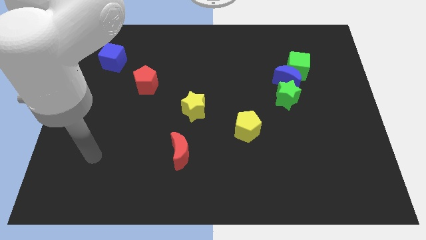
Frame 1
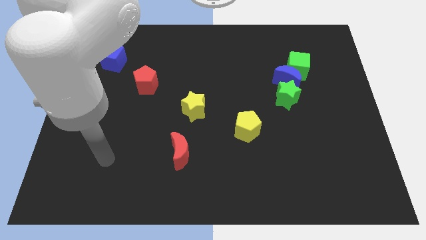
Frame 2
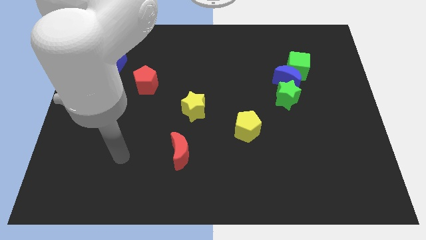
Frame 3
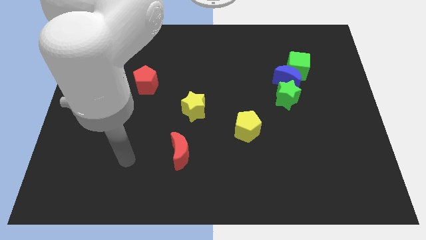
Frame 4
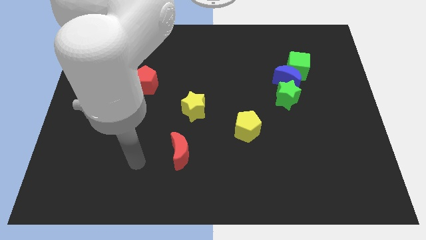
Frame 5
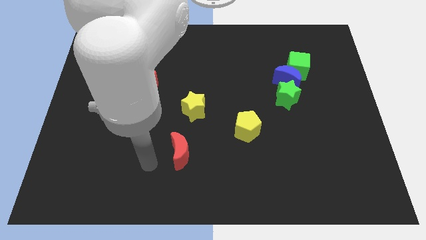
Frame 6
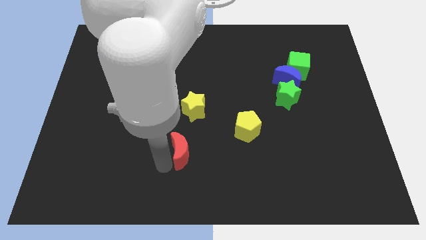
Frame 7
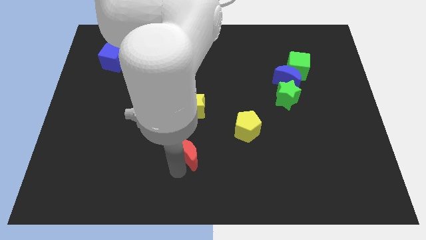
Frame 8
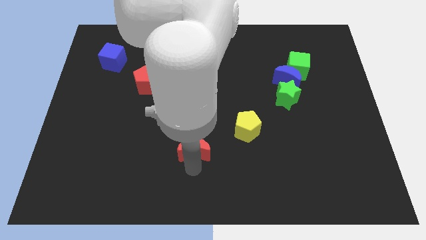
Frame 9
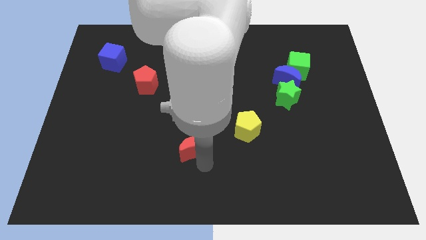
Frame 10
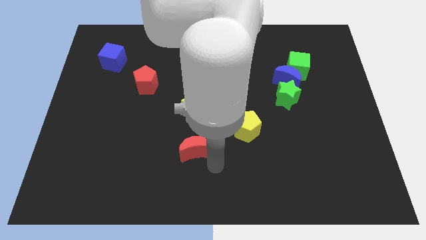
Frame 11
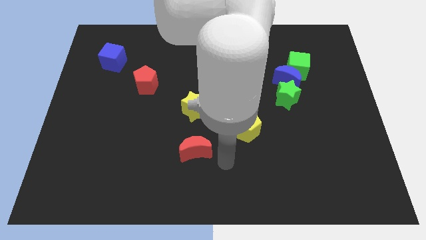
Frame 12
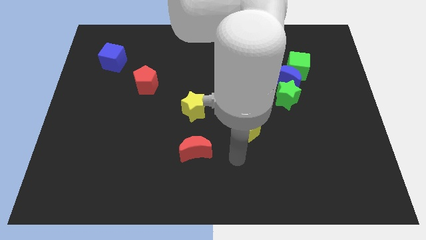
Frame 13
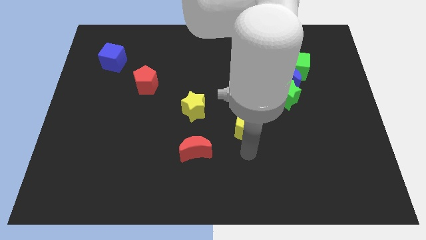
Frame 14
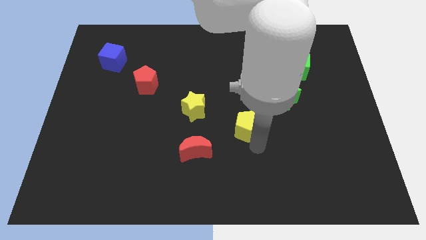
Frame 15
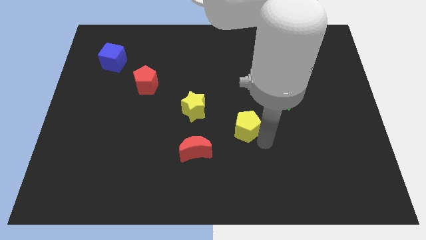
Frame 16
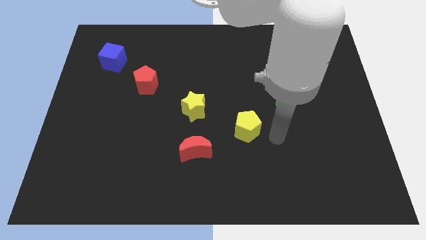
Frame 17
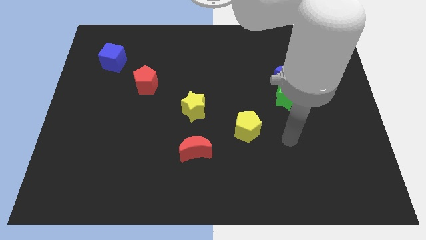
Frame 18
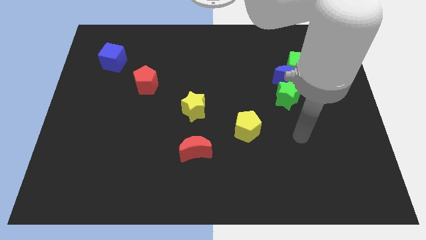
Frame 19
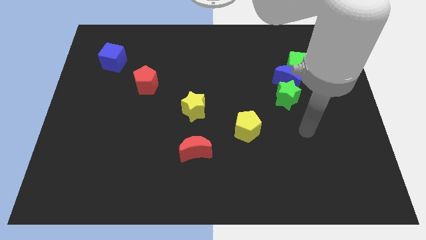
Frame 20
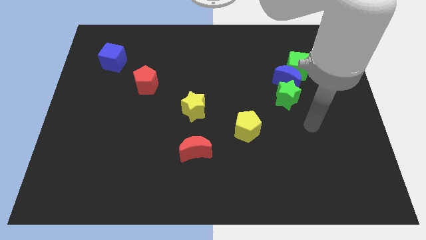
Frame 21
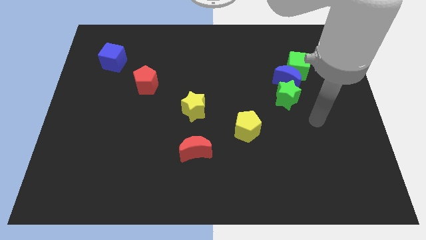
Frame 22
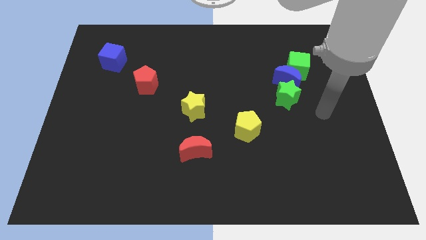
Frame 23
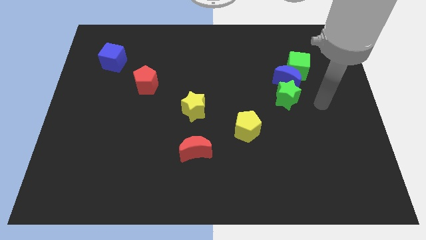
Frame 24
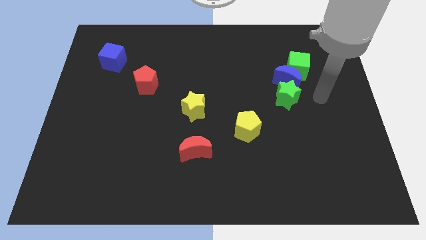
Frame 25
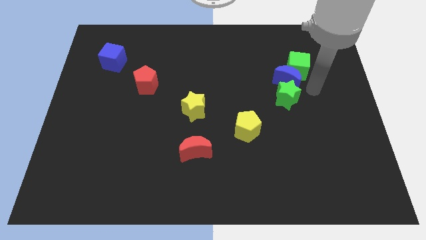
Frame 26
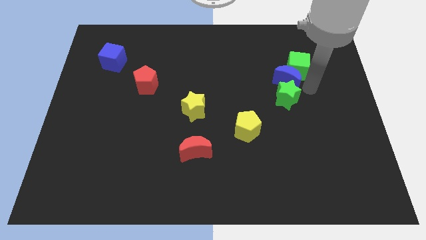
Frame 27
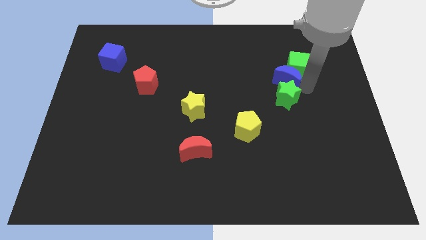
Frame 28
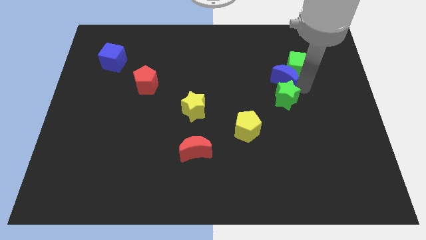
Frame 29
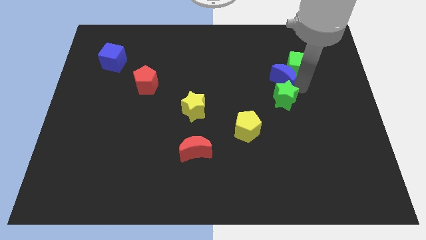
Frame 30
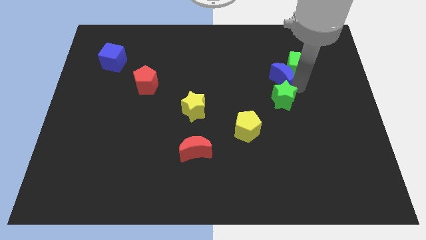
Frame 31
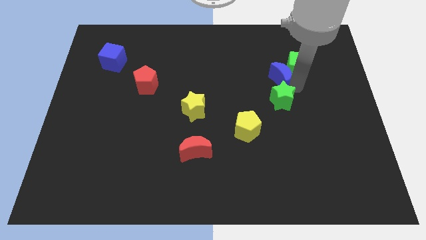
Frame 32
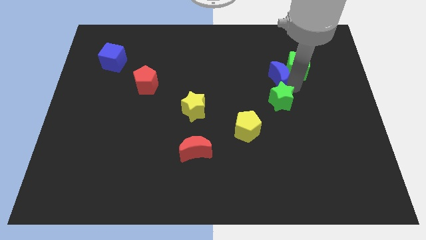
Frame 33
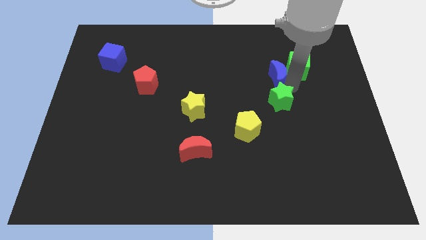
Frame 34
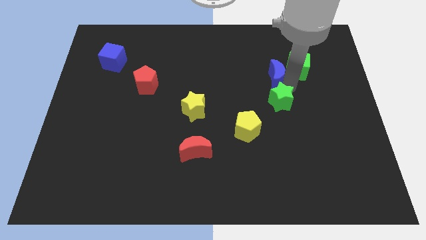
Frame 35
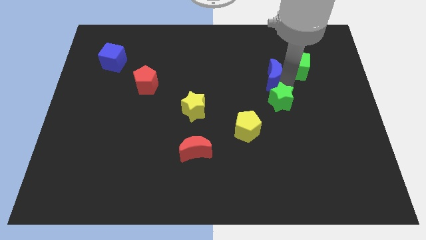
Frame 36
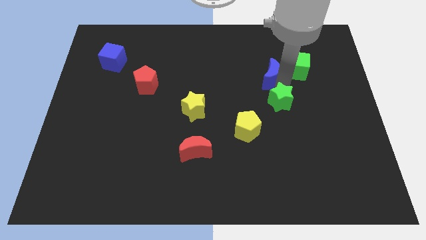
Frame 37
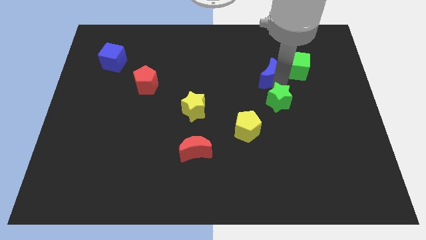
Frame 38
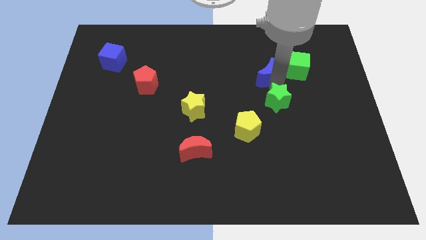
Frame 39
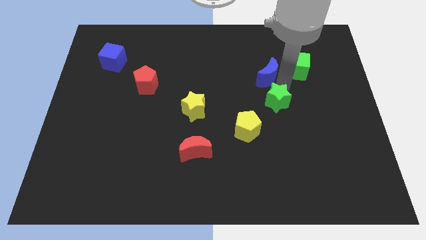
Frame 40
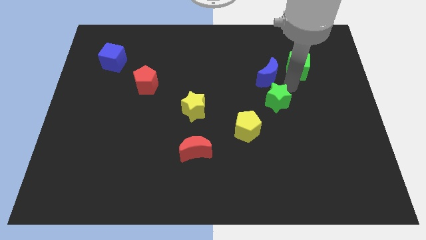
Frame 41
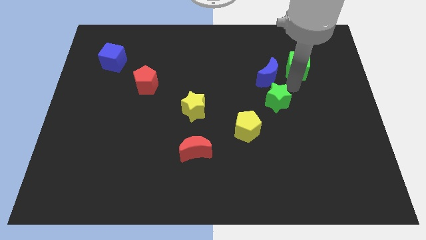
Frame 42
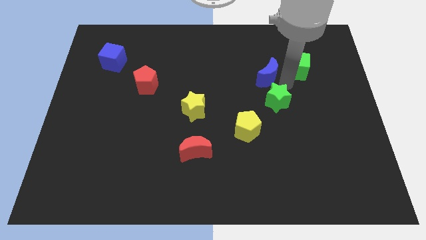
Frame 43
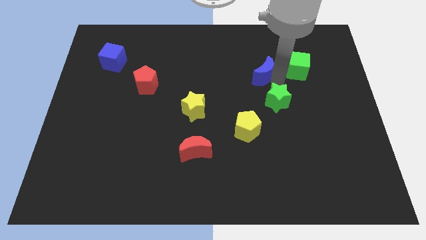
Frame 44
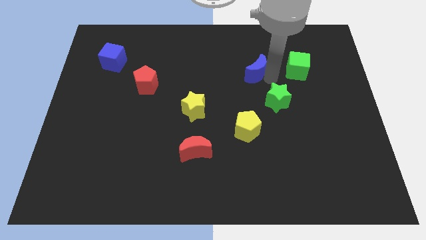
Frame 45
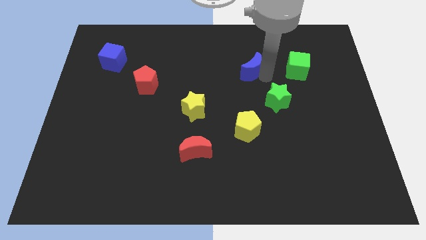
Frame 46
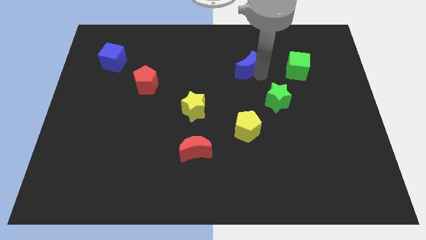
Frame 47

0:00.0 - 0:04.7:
pull the blue moon apart from the green cube and green star

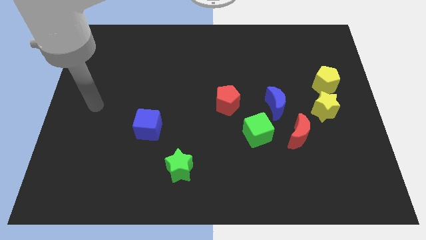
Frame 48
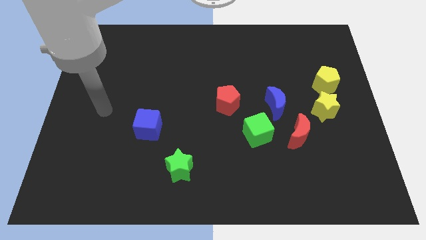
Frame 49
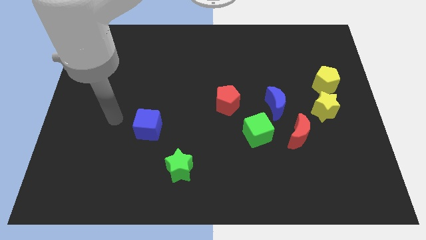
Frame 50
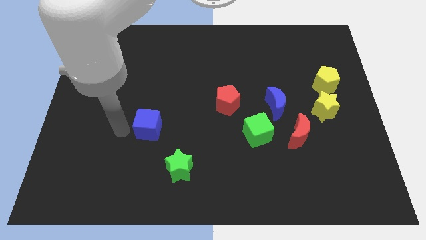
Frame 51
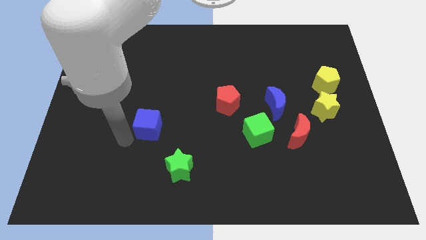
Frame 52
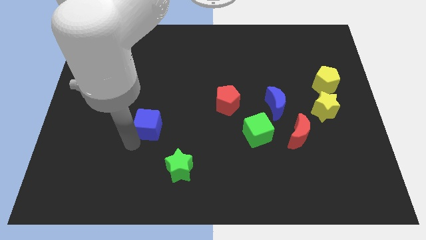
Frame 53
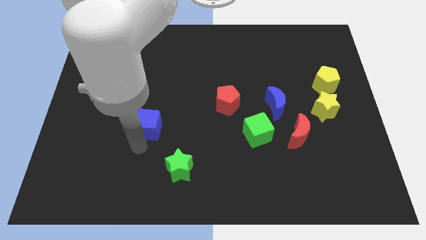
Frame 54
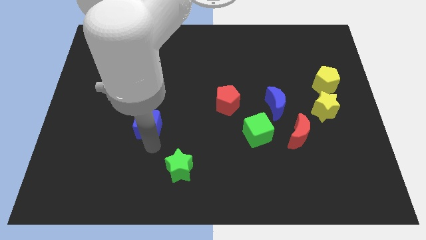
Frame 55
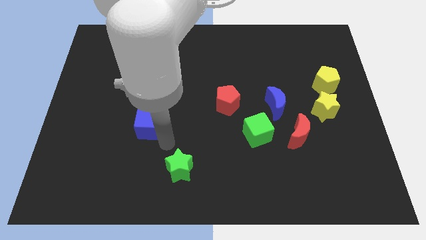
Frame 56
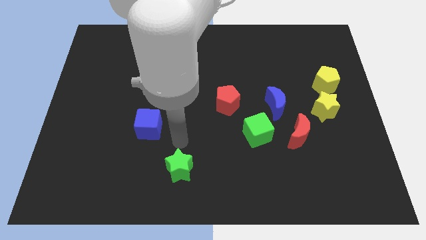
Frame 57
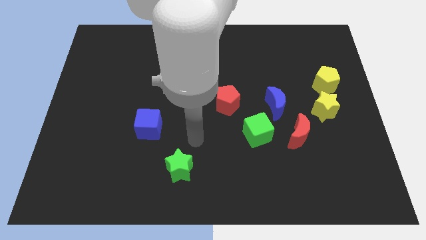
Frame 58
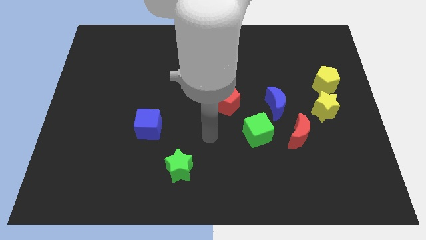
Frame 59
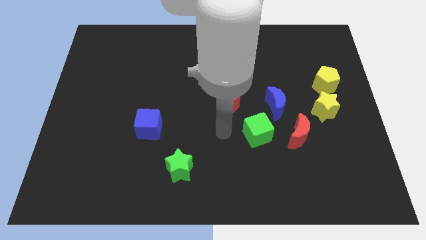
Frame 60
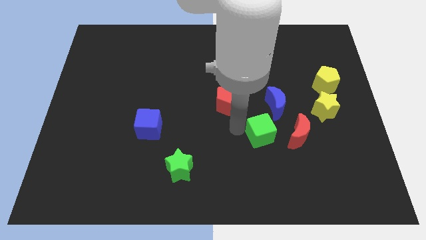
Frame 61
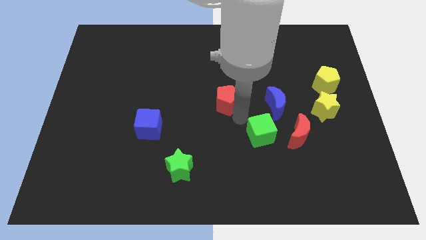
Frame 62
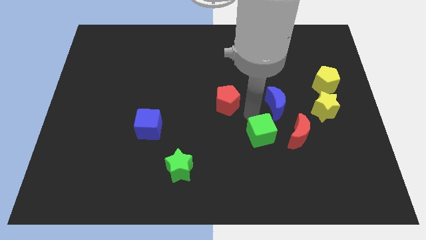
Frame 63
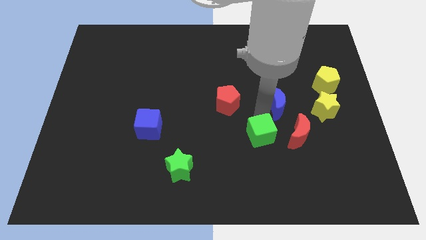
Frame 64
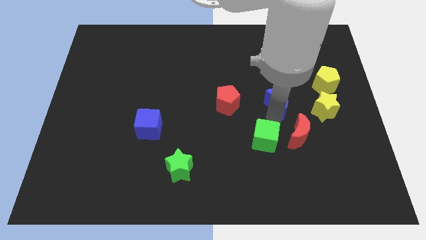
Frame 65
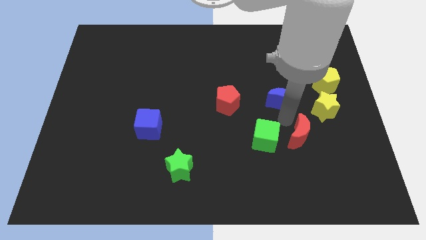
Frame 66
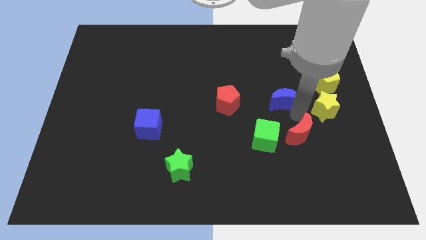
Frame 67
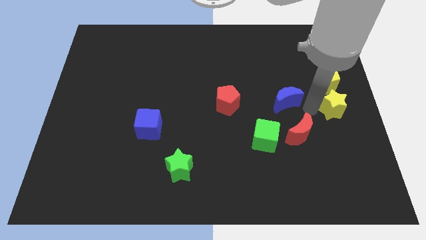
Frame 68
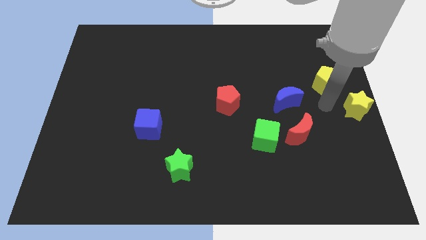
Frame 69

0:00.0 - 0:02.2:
move the yellow pentagon away from the yellow star

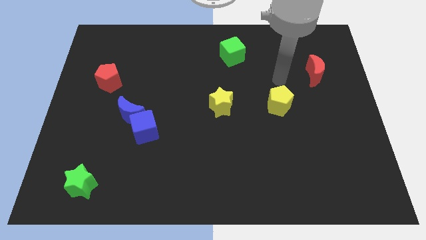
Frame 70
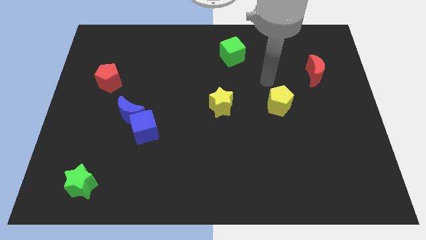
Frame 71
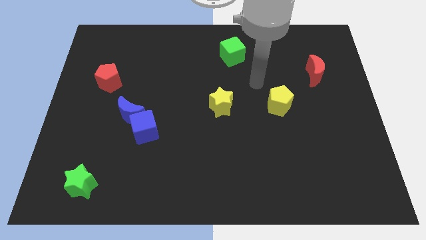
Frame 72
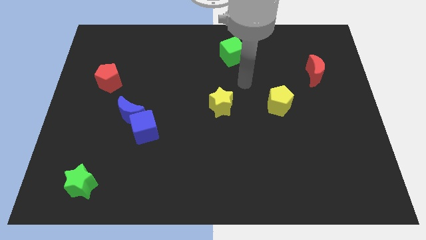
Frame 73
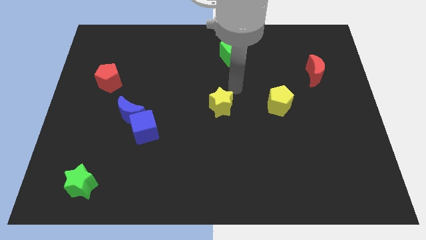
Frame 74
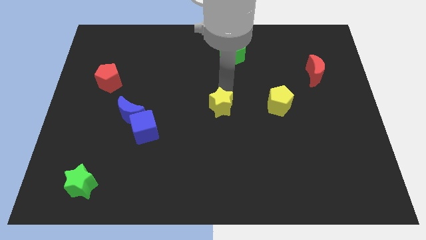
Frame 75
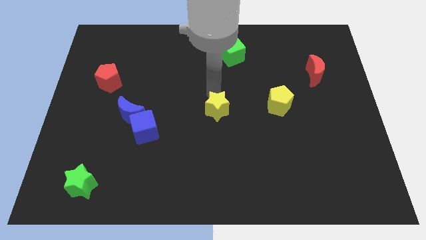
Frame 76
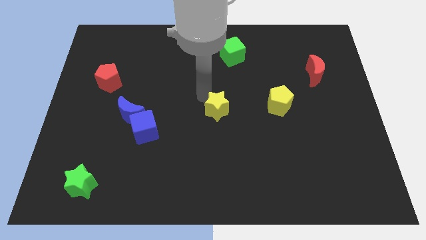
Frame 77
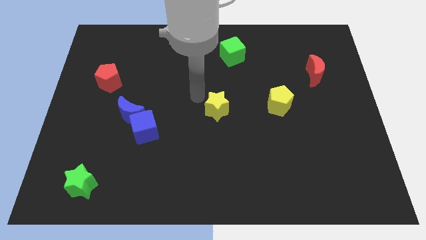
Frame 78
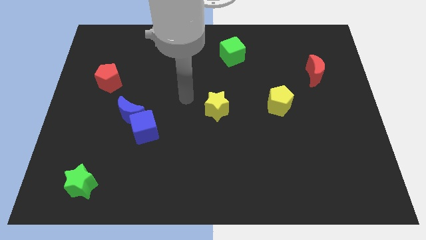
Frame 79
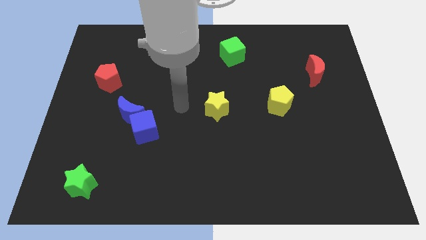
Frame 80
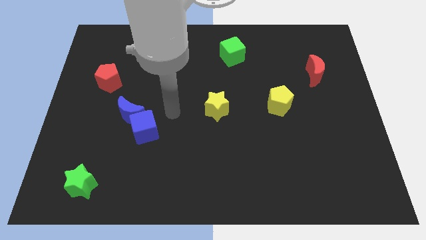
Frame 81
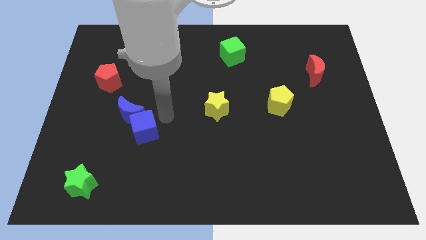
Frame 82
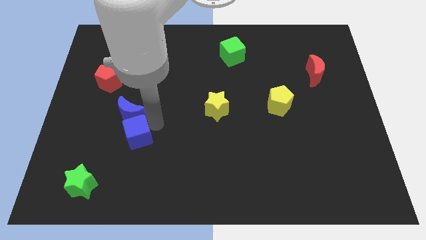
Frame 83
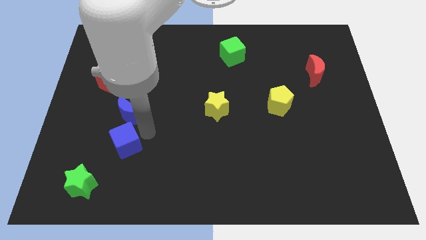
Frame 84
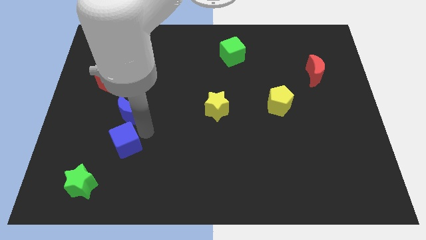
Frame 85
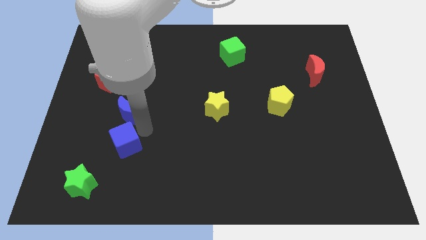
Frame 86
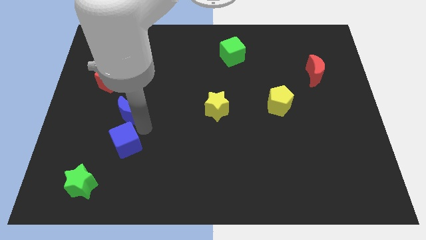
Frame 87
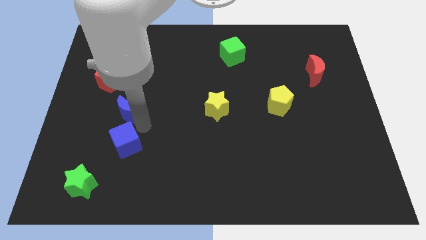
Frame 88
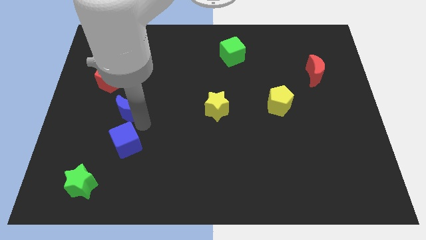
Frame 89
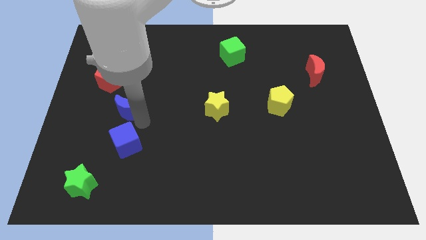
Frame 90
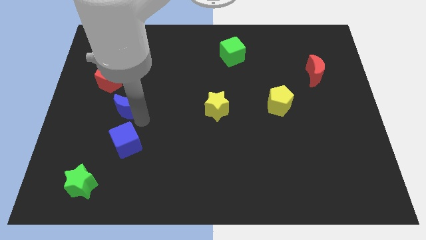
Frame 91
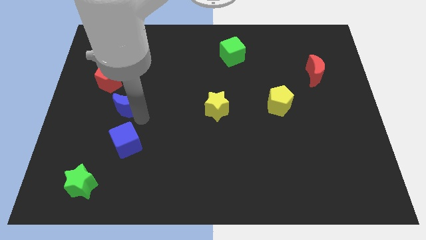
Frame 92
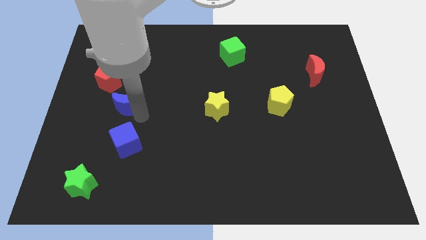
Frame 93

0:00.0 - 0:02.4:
pull the blue moon apart from the blue cube

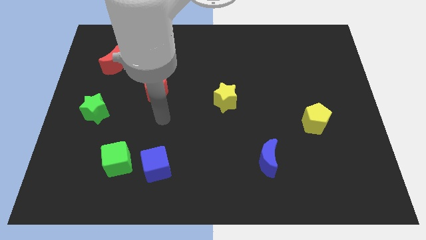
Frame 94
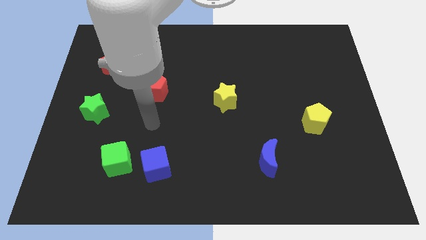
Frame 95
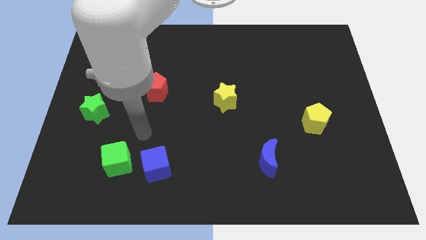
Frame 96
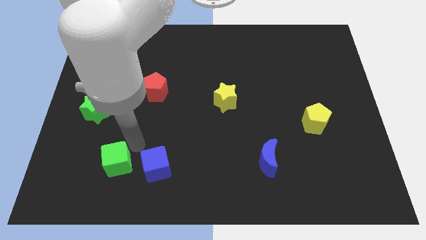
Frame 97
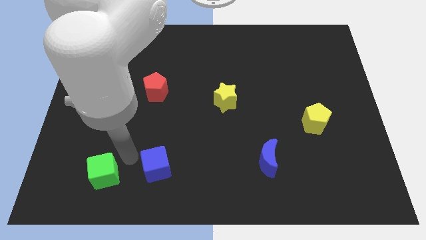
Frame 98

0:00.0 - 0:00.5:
pull the blue cube apart from the green cube
